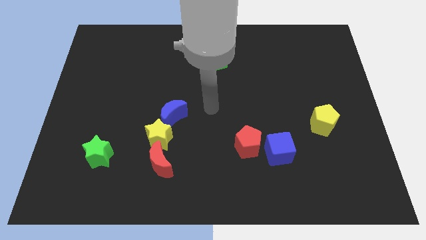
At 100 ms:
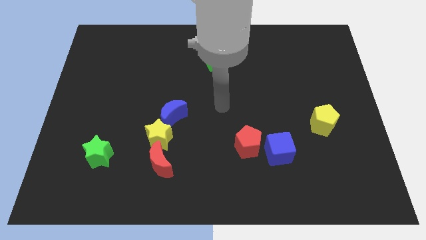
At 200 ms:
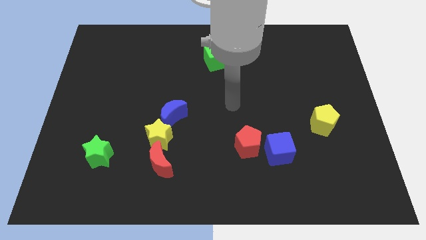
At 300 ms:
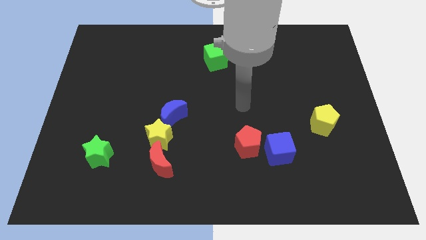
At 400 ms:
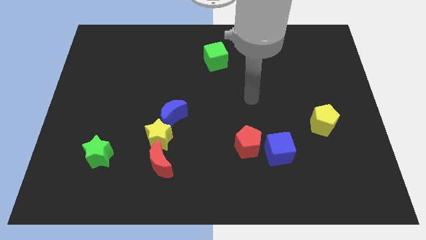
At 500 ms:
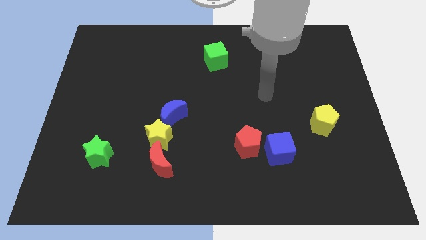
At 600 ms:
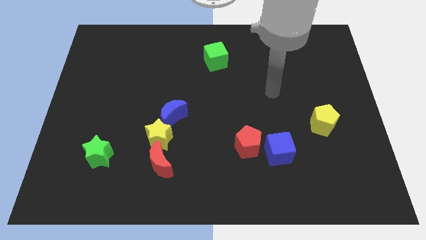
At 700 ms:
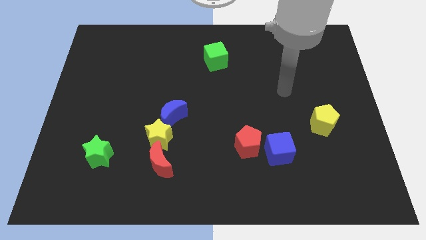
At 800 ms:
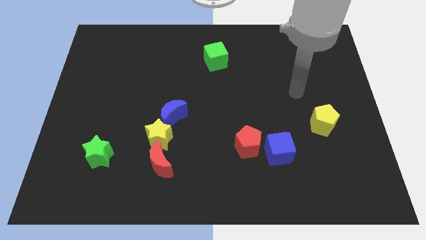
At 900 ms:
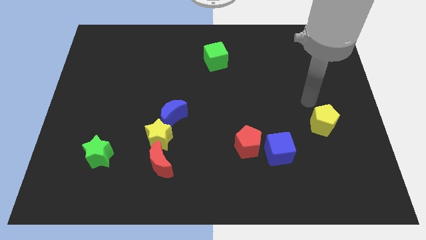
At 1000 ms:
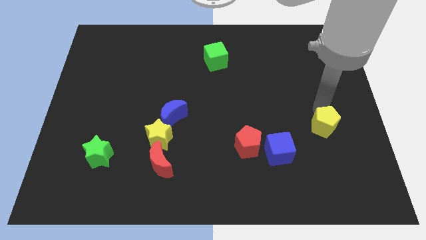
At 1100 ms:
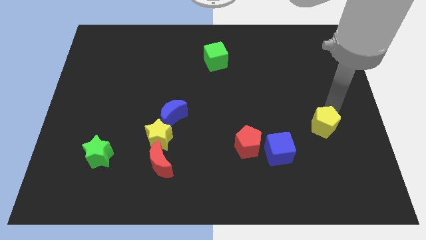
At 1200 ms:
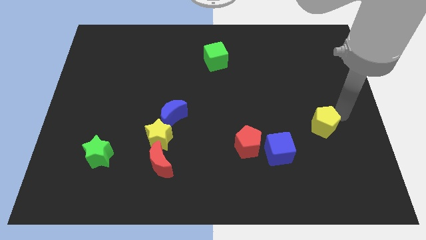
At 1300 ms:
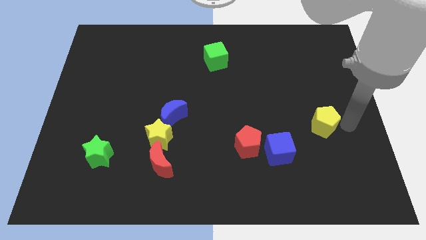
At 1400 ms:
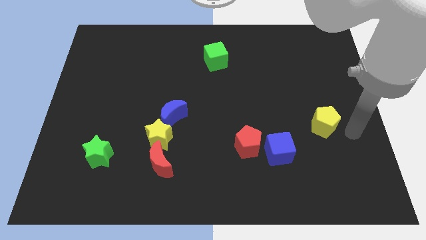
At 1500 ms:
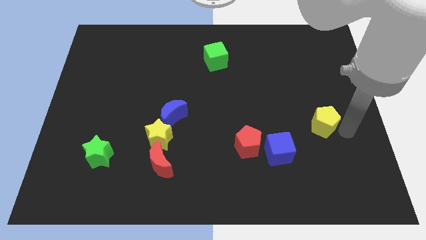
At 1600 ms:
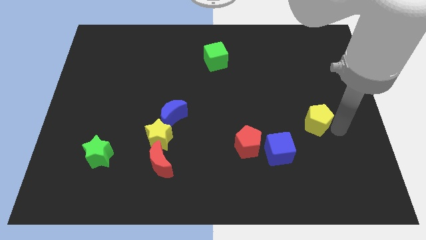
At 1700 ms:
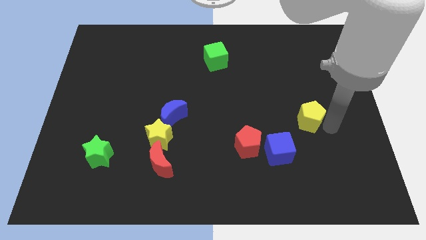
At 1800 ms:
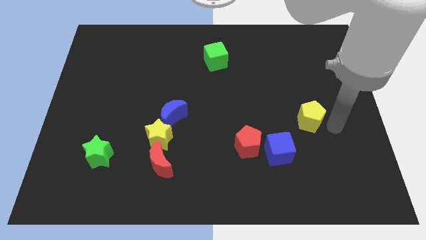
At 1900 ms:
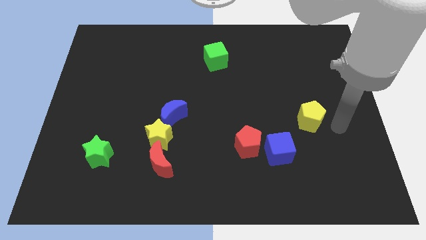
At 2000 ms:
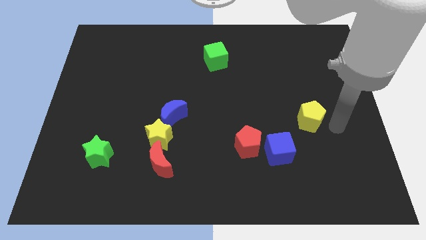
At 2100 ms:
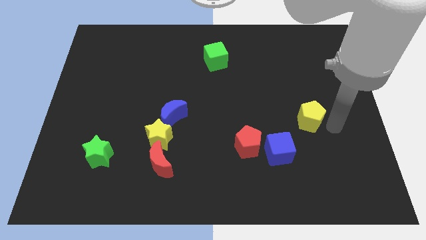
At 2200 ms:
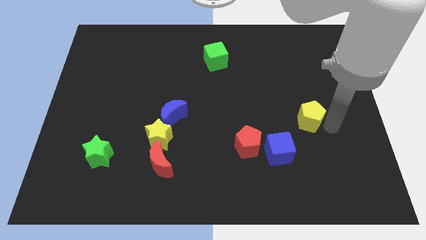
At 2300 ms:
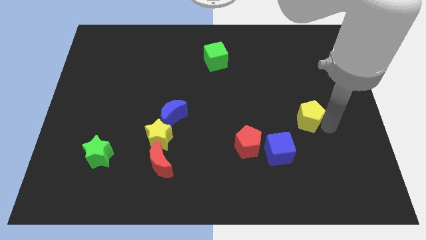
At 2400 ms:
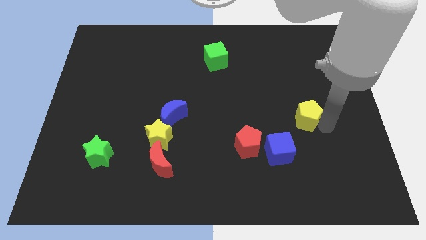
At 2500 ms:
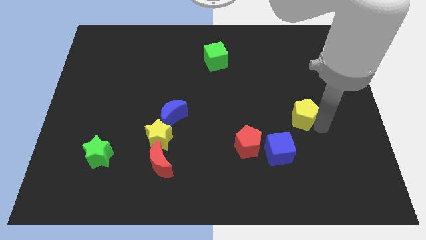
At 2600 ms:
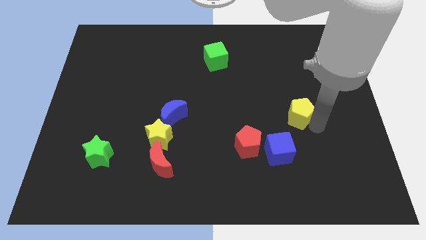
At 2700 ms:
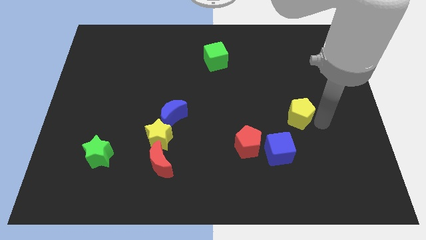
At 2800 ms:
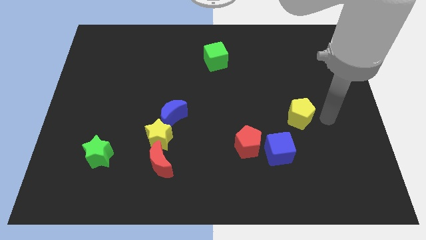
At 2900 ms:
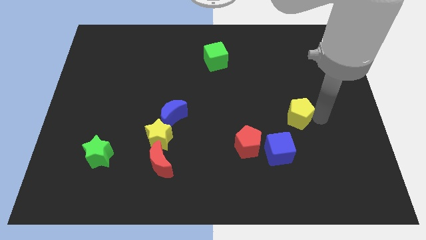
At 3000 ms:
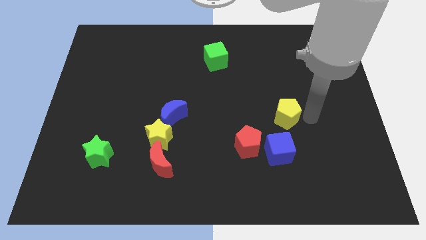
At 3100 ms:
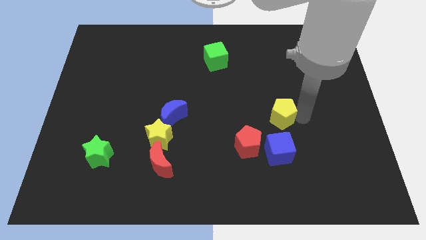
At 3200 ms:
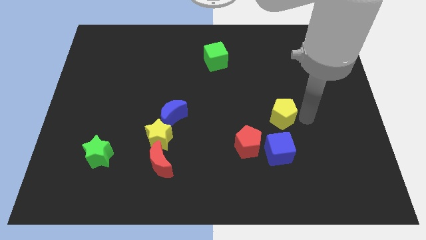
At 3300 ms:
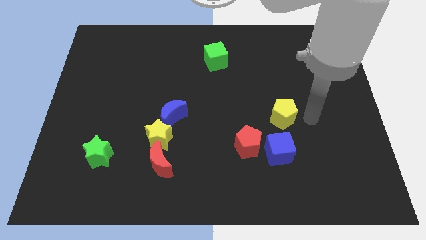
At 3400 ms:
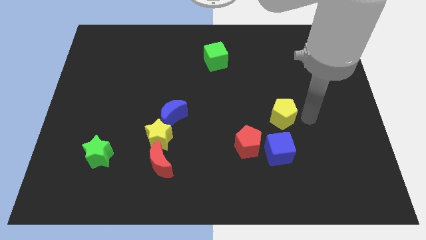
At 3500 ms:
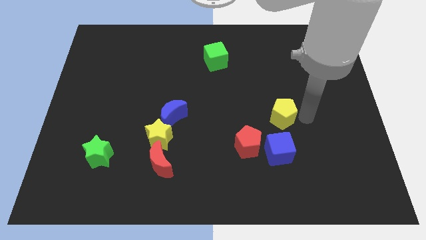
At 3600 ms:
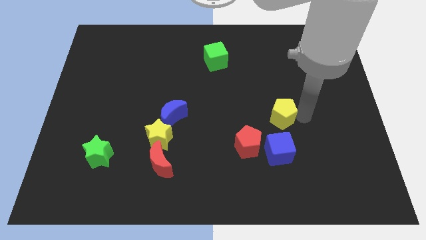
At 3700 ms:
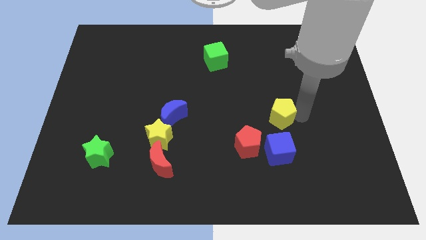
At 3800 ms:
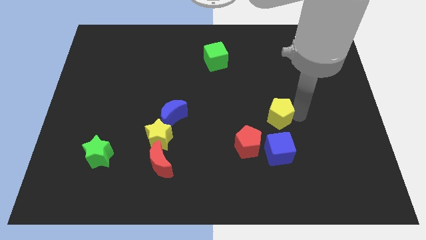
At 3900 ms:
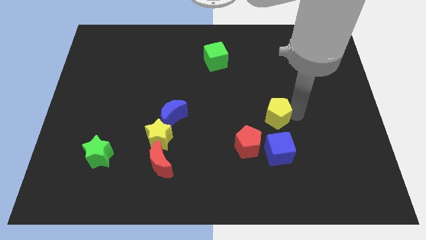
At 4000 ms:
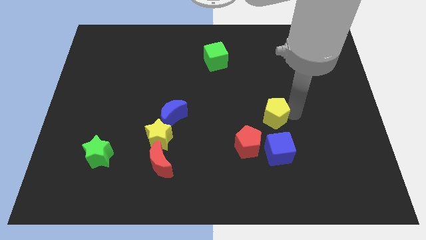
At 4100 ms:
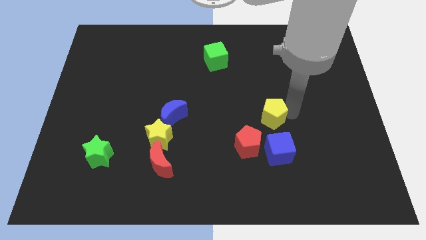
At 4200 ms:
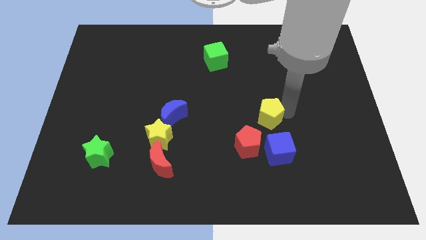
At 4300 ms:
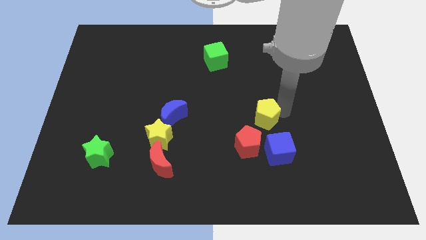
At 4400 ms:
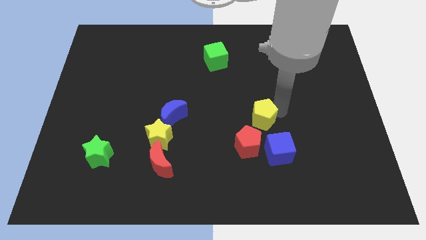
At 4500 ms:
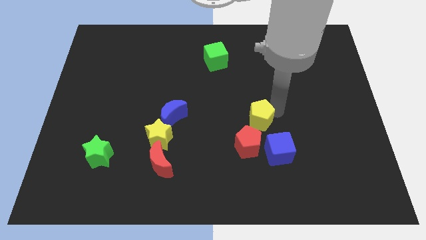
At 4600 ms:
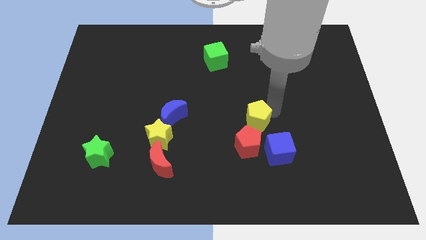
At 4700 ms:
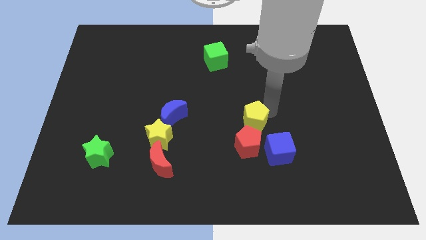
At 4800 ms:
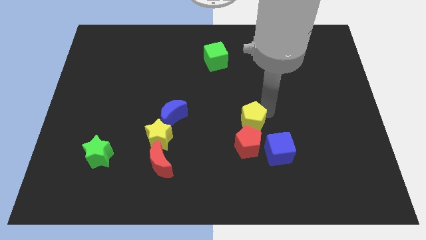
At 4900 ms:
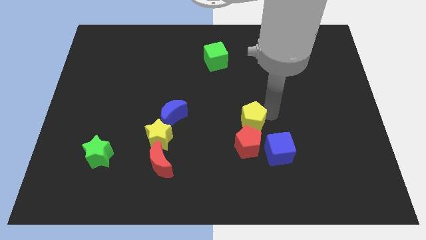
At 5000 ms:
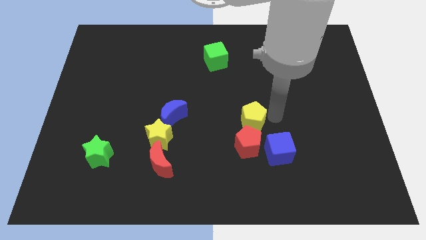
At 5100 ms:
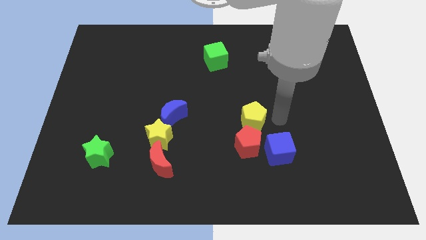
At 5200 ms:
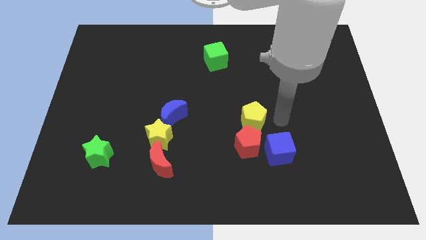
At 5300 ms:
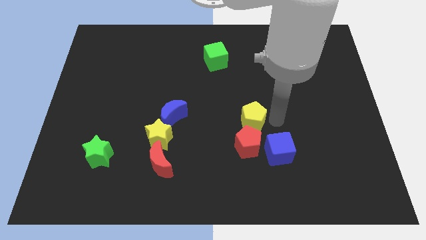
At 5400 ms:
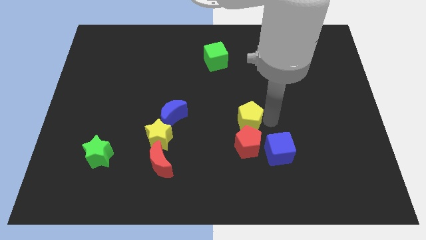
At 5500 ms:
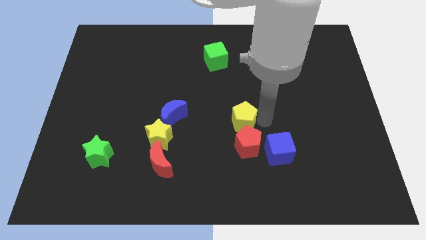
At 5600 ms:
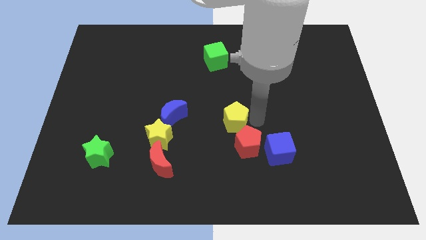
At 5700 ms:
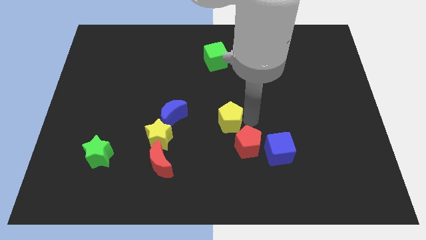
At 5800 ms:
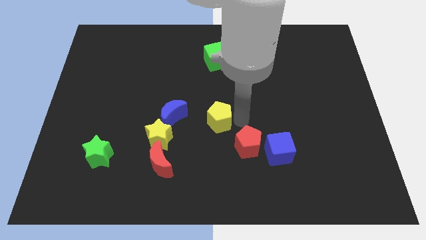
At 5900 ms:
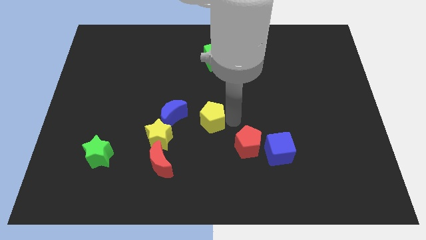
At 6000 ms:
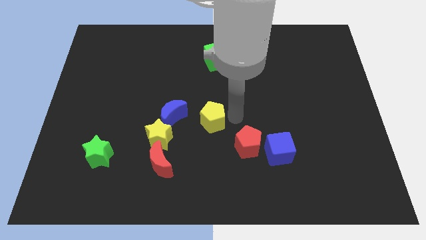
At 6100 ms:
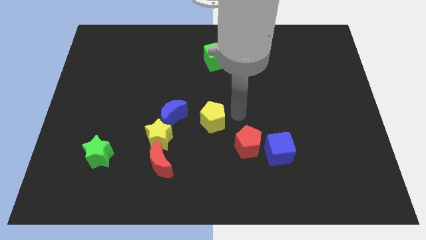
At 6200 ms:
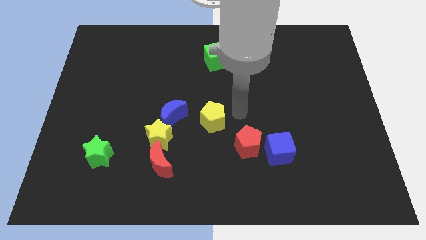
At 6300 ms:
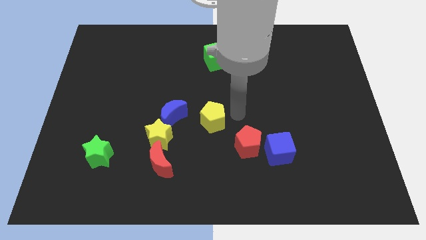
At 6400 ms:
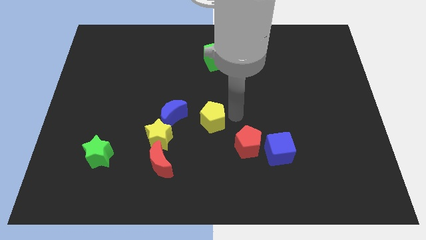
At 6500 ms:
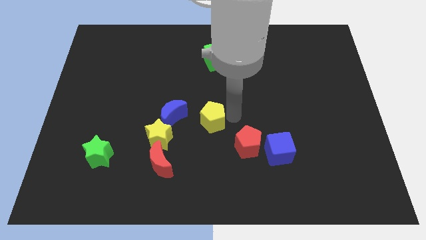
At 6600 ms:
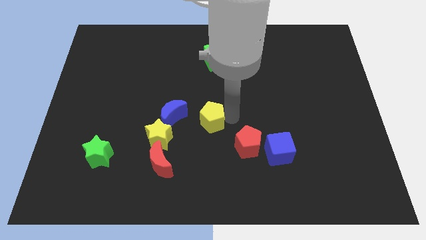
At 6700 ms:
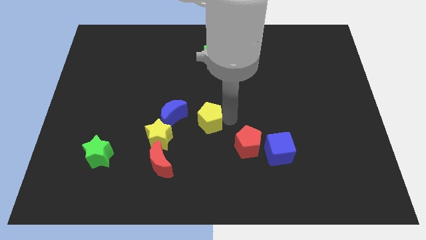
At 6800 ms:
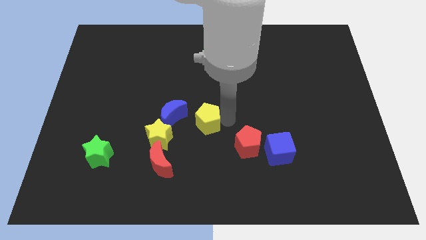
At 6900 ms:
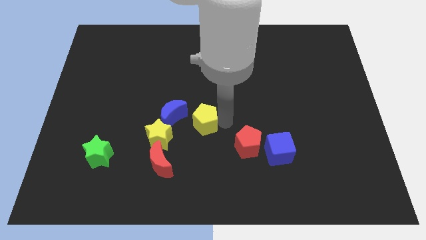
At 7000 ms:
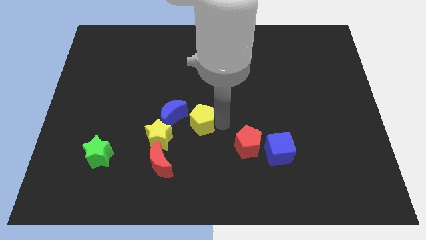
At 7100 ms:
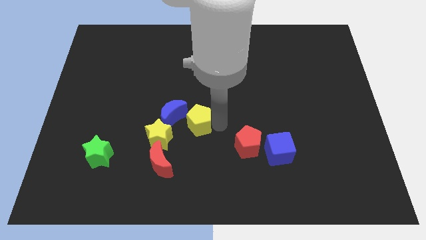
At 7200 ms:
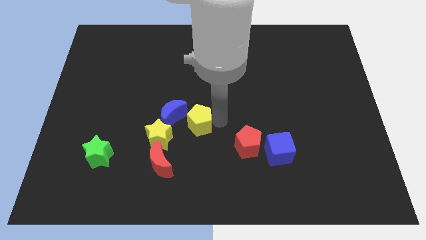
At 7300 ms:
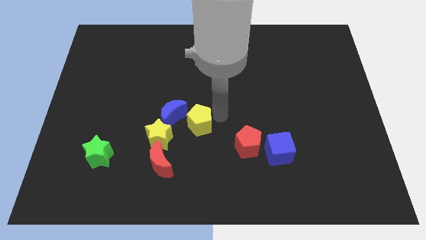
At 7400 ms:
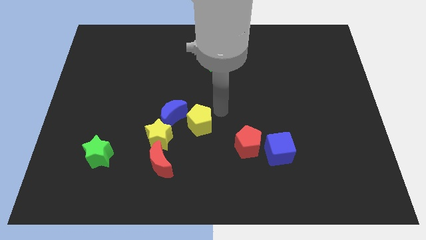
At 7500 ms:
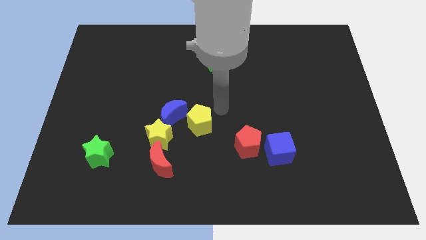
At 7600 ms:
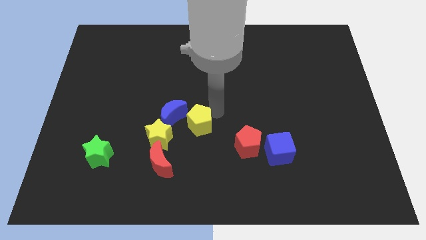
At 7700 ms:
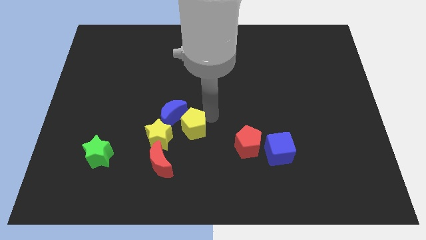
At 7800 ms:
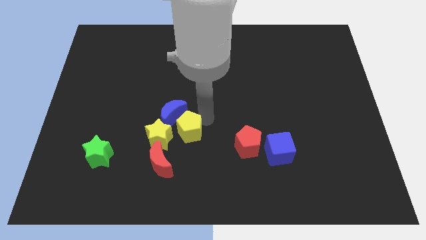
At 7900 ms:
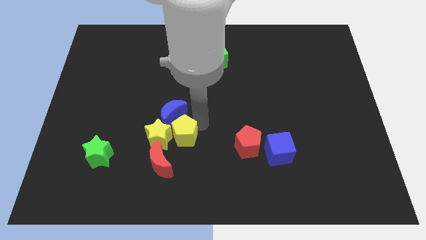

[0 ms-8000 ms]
move the yellow pentagon next to the yellow star

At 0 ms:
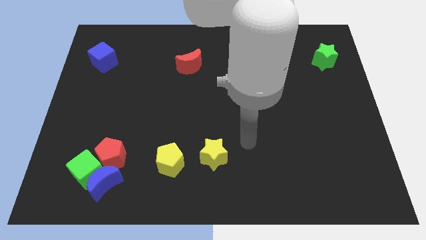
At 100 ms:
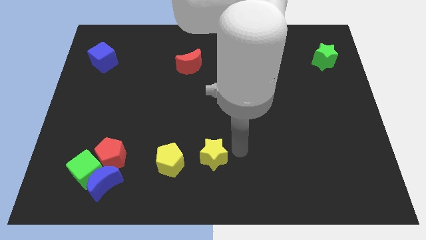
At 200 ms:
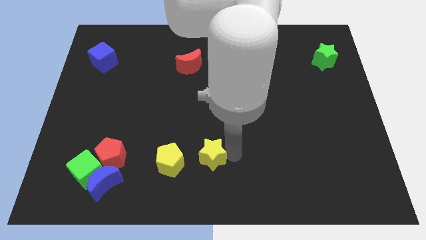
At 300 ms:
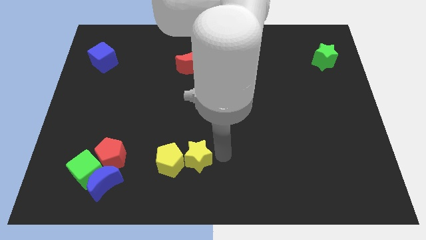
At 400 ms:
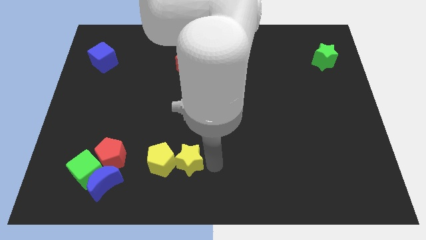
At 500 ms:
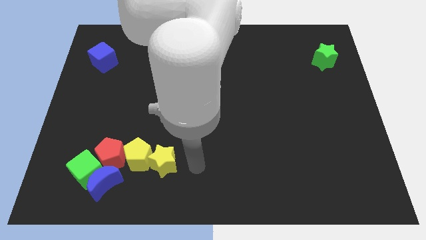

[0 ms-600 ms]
put the yellow pentagon towards the red pentagon
